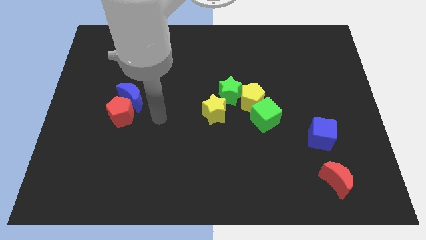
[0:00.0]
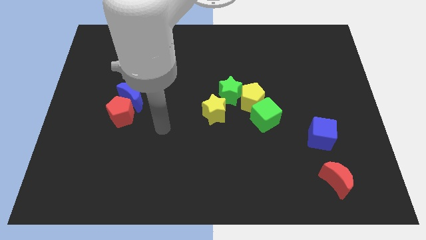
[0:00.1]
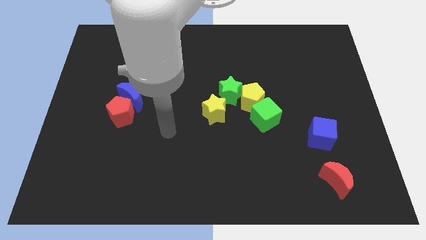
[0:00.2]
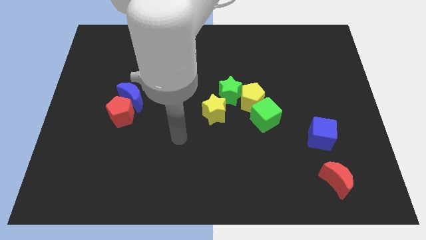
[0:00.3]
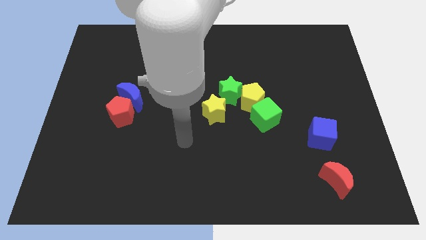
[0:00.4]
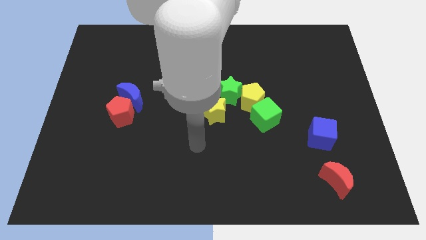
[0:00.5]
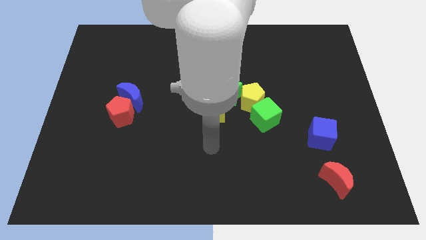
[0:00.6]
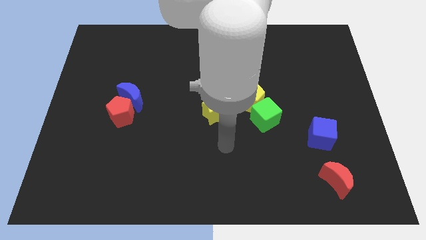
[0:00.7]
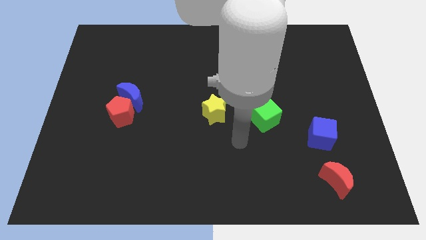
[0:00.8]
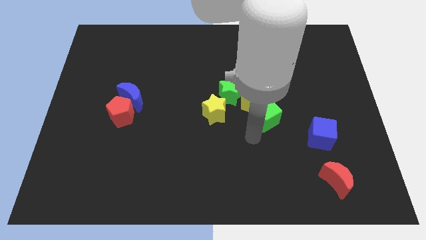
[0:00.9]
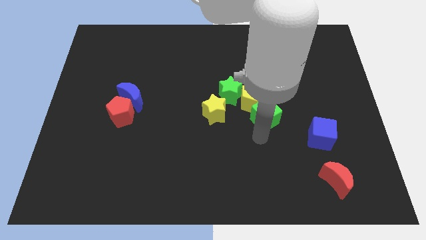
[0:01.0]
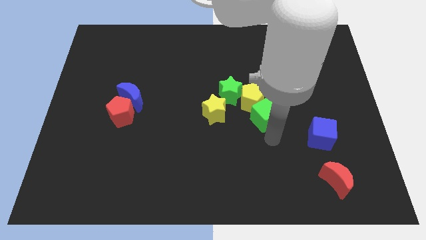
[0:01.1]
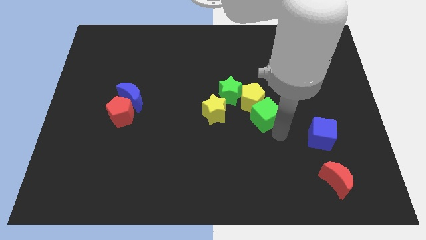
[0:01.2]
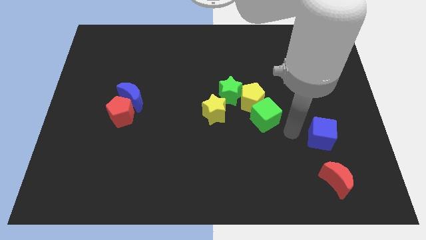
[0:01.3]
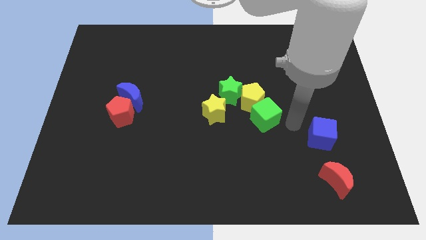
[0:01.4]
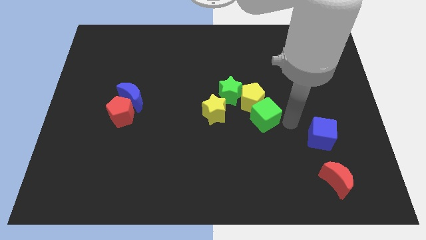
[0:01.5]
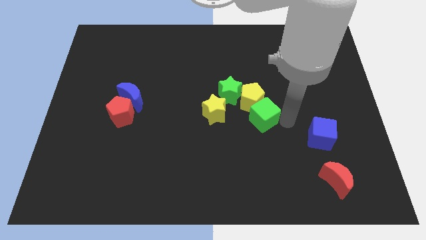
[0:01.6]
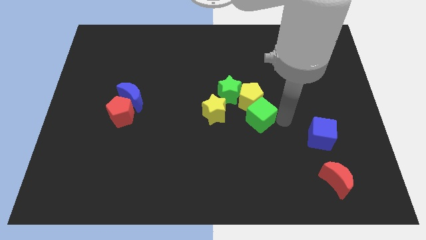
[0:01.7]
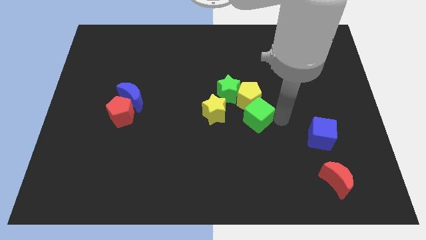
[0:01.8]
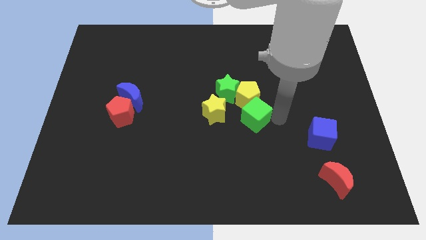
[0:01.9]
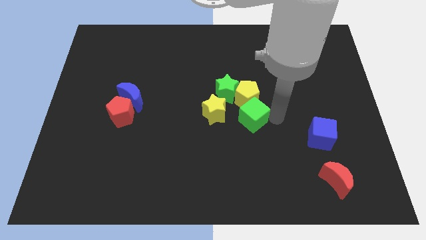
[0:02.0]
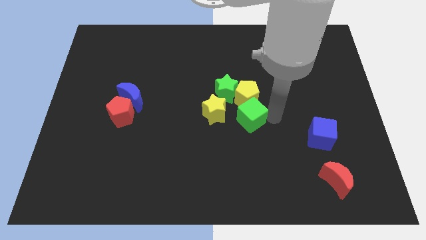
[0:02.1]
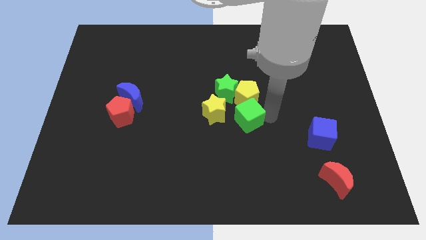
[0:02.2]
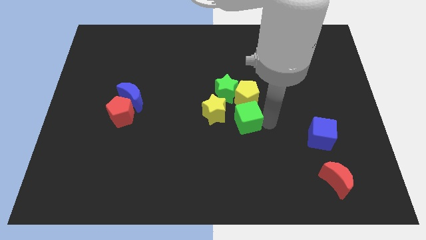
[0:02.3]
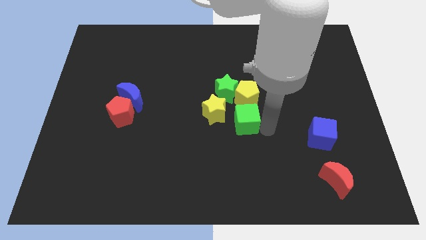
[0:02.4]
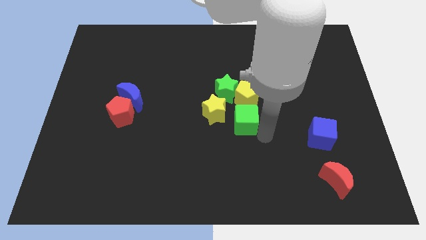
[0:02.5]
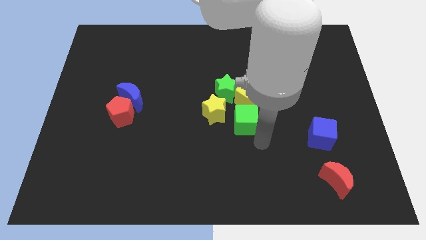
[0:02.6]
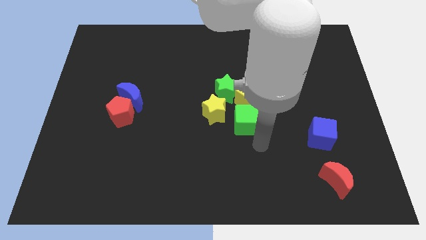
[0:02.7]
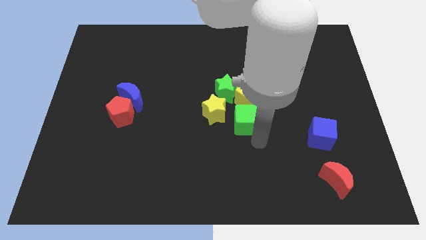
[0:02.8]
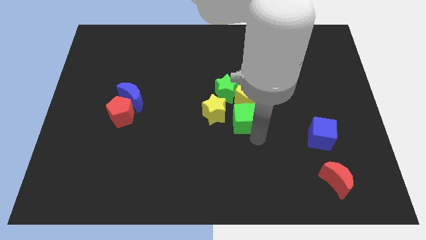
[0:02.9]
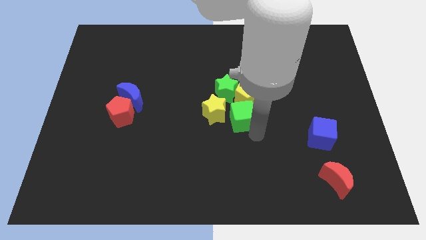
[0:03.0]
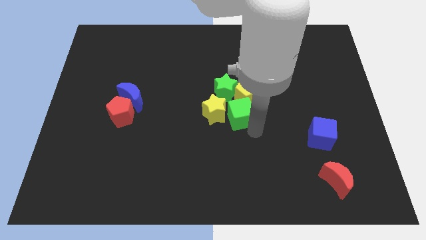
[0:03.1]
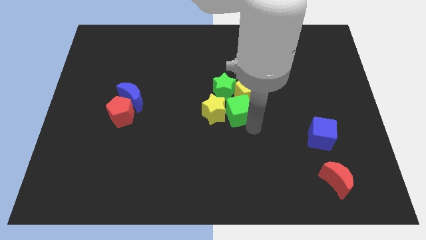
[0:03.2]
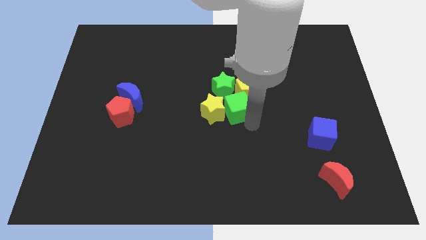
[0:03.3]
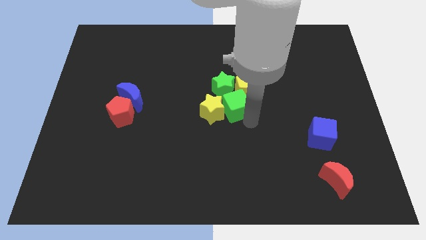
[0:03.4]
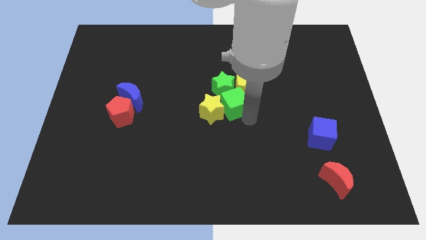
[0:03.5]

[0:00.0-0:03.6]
slide the green cube next to the green star

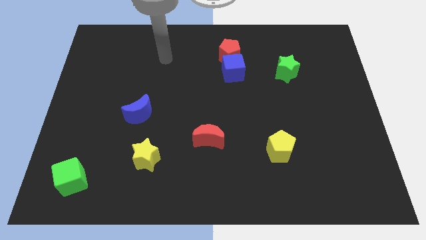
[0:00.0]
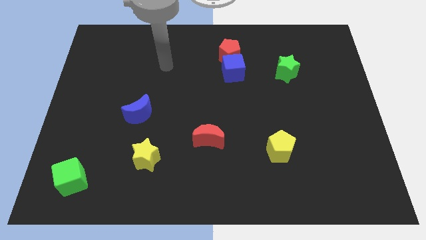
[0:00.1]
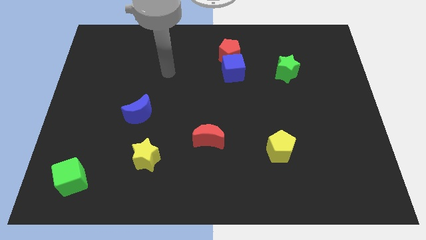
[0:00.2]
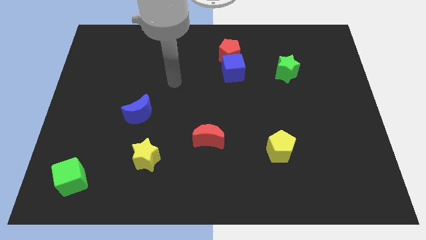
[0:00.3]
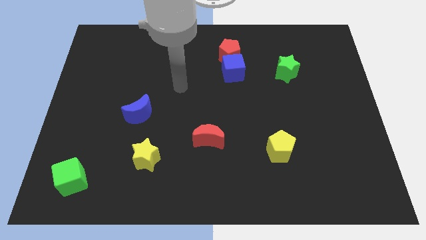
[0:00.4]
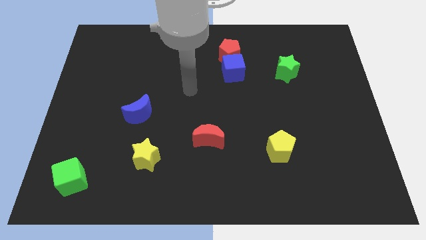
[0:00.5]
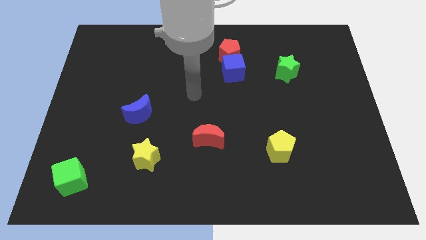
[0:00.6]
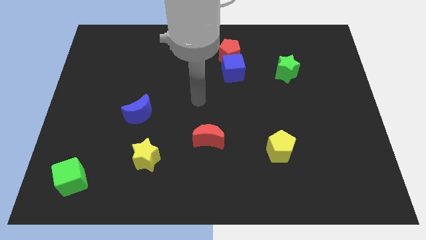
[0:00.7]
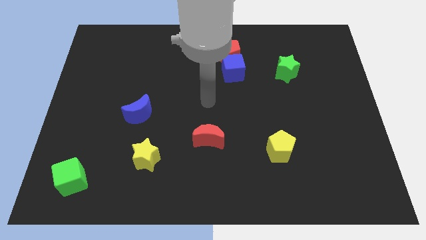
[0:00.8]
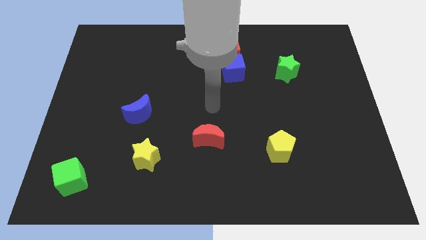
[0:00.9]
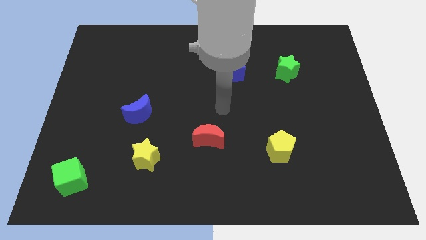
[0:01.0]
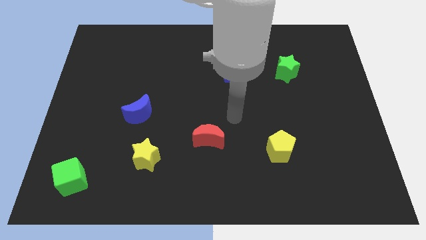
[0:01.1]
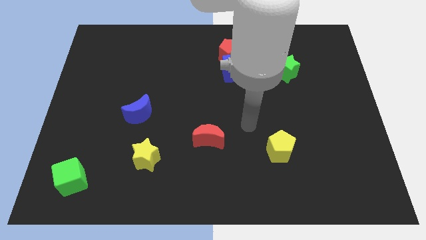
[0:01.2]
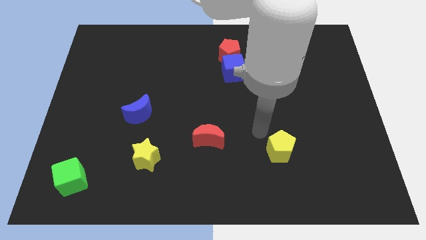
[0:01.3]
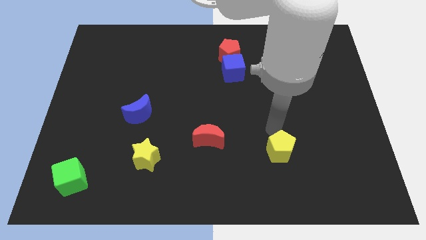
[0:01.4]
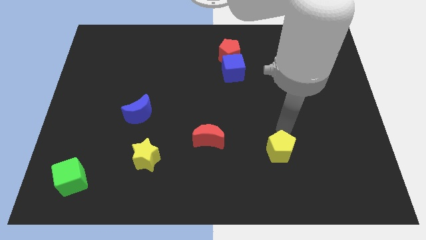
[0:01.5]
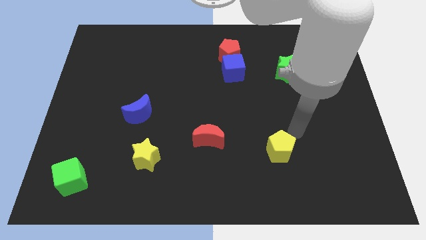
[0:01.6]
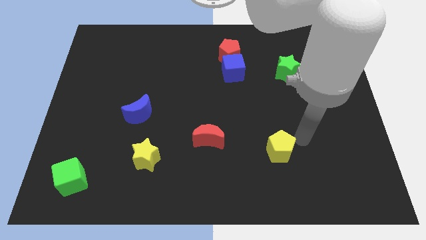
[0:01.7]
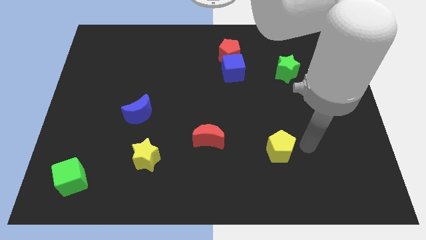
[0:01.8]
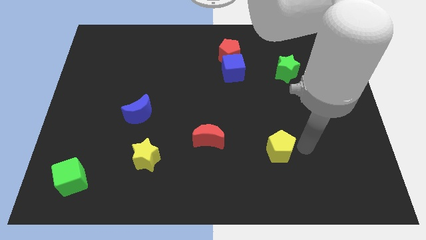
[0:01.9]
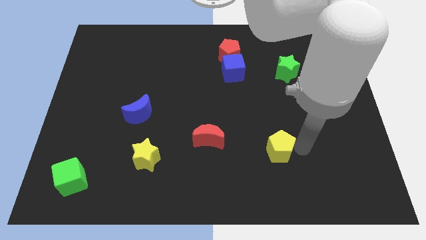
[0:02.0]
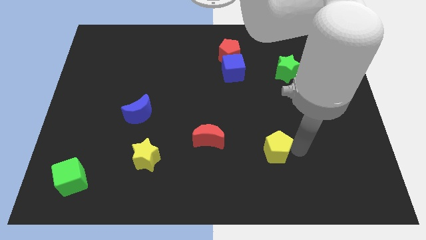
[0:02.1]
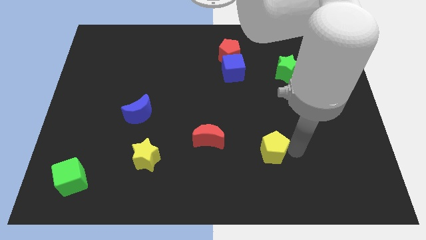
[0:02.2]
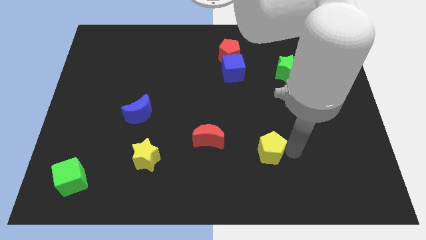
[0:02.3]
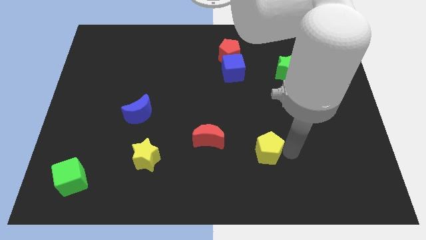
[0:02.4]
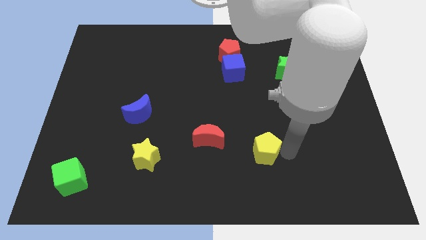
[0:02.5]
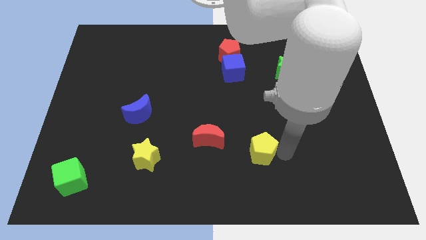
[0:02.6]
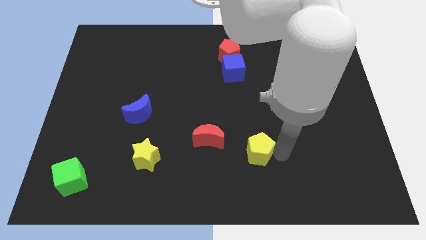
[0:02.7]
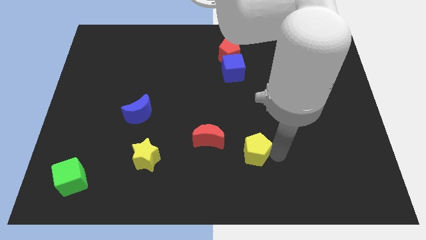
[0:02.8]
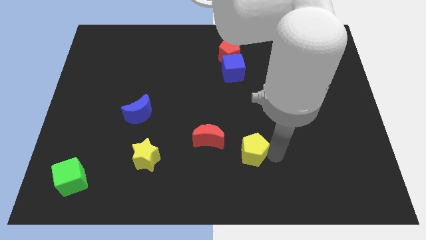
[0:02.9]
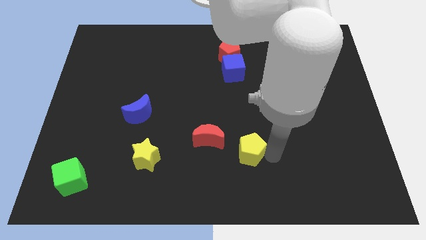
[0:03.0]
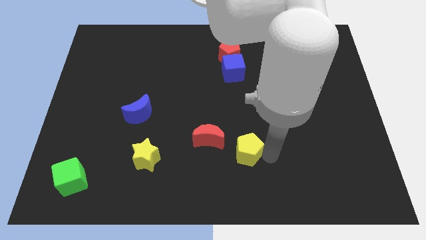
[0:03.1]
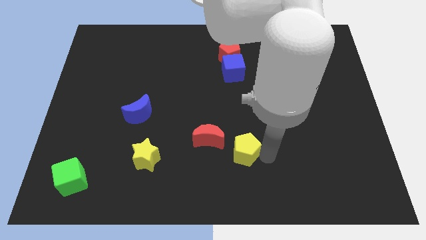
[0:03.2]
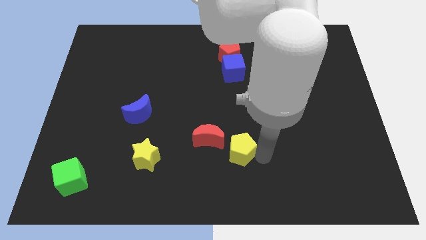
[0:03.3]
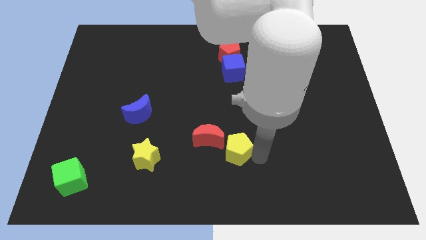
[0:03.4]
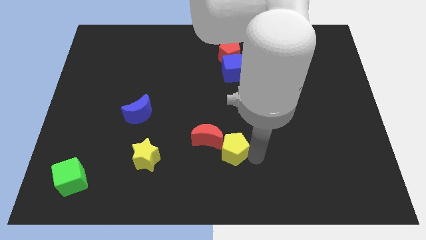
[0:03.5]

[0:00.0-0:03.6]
slide the yellow pentagon close to the red moon

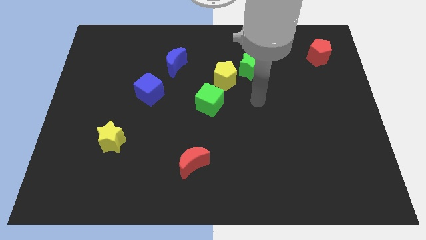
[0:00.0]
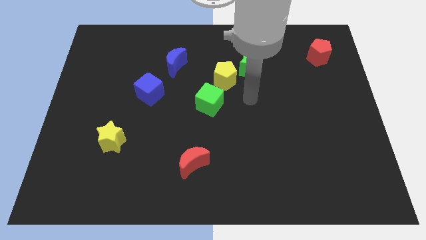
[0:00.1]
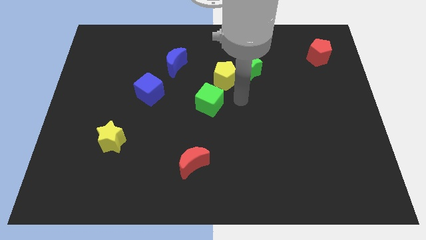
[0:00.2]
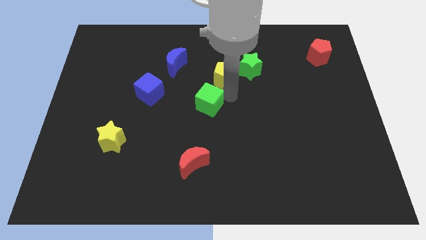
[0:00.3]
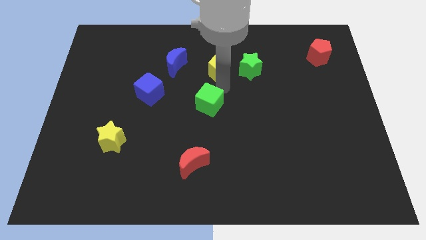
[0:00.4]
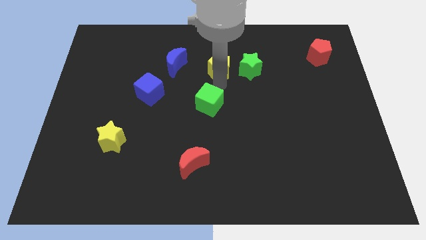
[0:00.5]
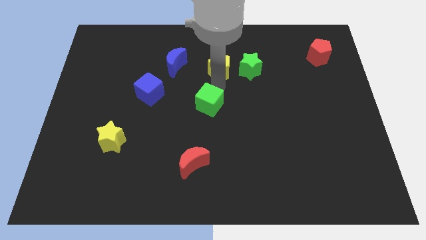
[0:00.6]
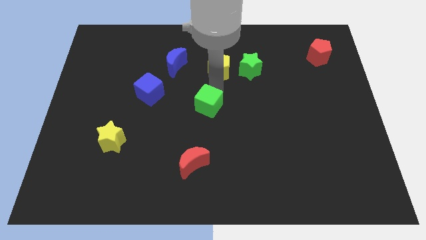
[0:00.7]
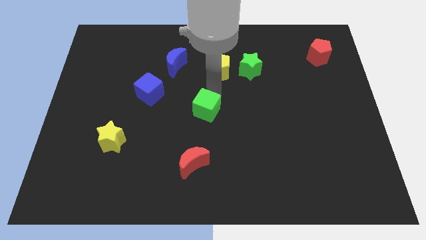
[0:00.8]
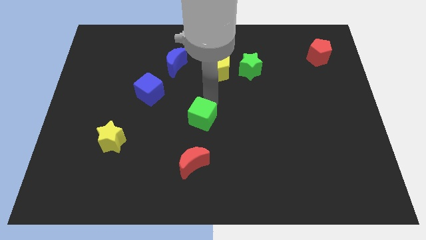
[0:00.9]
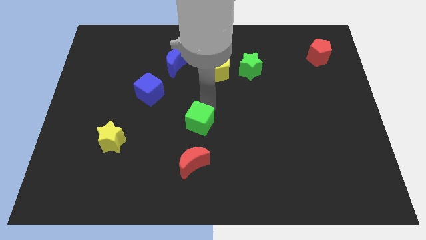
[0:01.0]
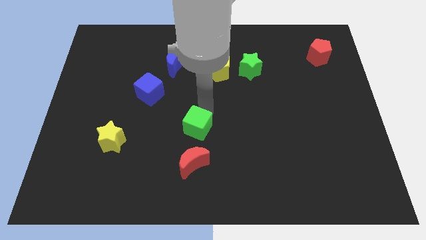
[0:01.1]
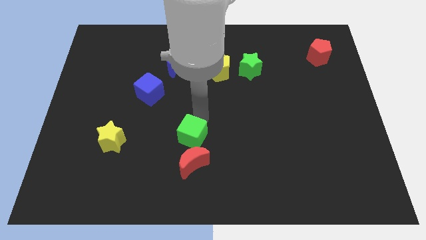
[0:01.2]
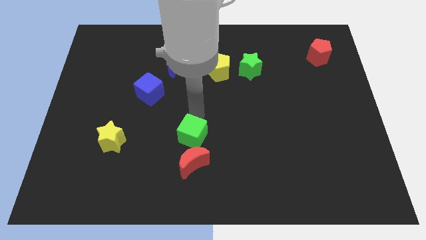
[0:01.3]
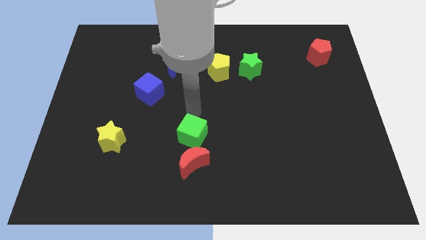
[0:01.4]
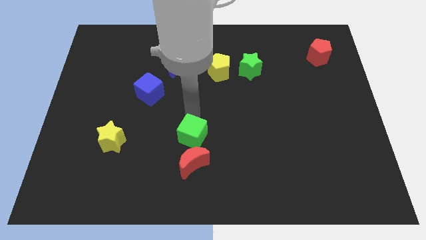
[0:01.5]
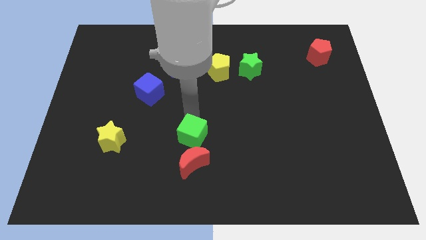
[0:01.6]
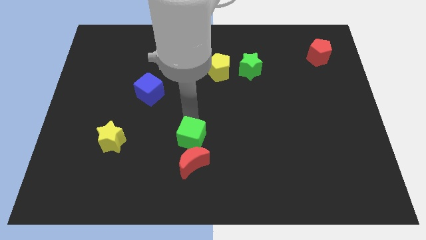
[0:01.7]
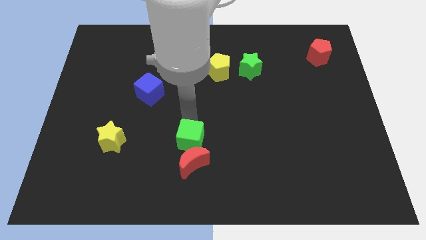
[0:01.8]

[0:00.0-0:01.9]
put the green cube to the red moon
